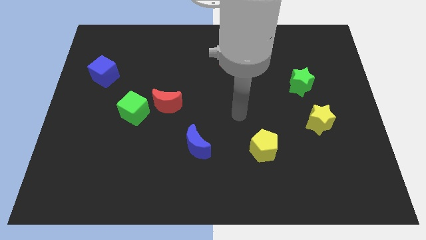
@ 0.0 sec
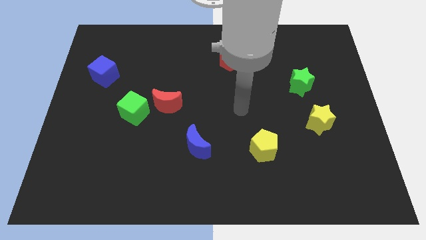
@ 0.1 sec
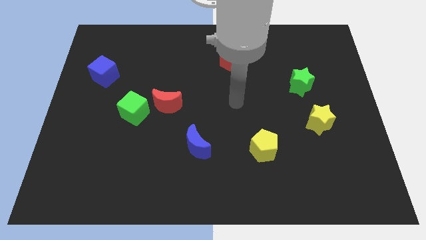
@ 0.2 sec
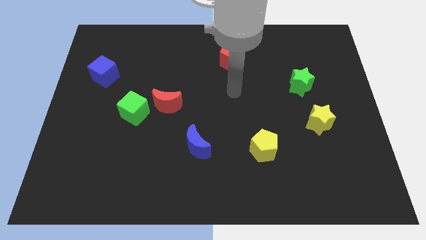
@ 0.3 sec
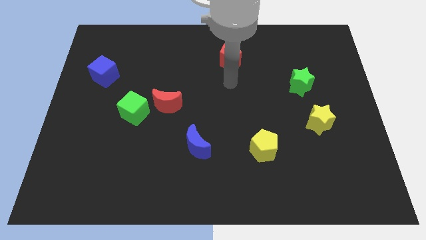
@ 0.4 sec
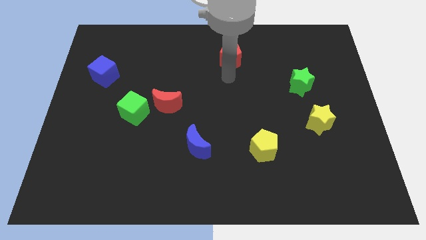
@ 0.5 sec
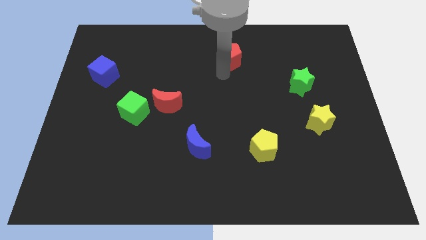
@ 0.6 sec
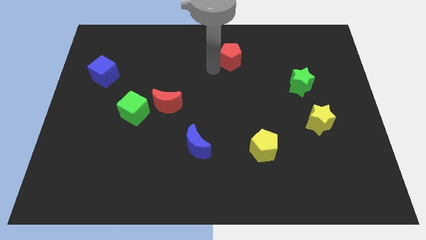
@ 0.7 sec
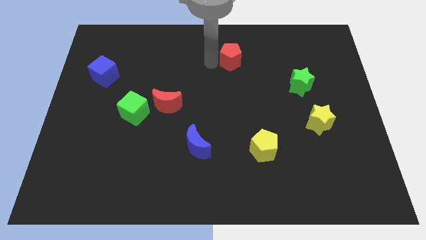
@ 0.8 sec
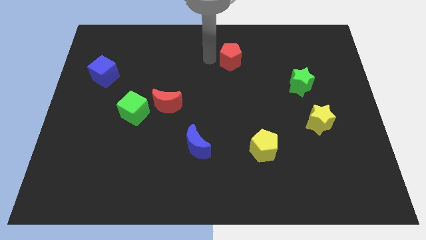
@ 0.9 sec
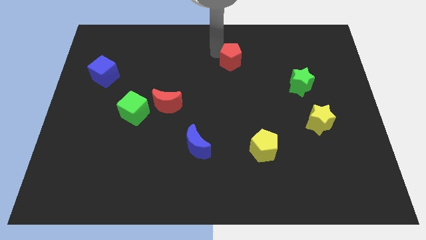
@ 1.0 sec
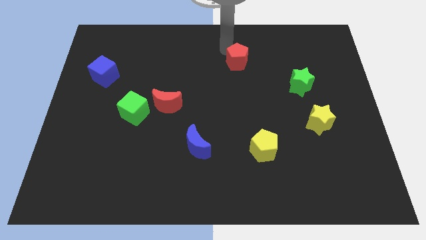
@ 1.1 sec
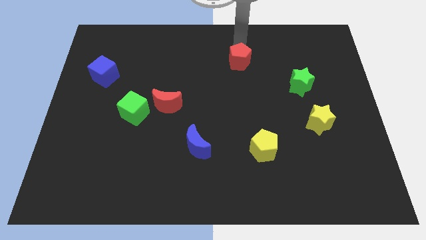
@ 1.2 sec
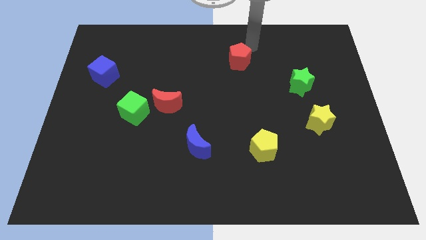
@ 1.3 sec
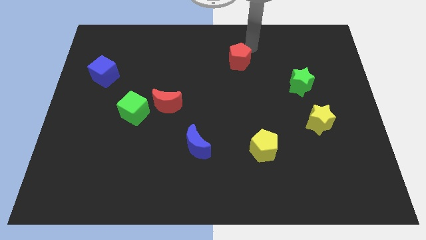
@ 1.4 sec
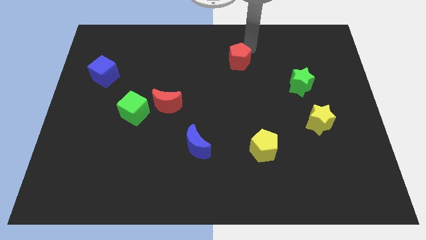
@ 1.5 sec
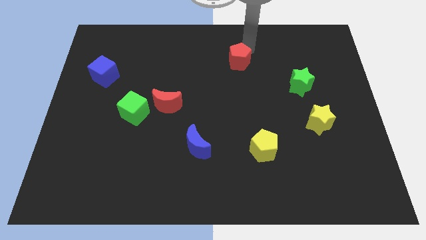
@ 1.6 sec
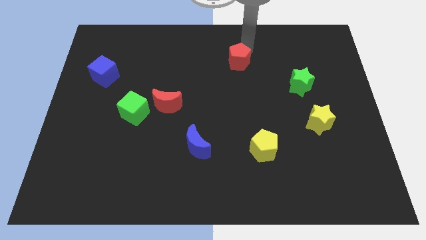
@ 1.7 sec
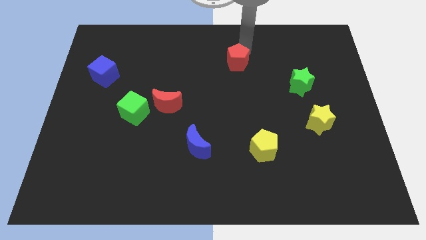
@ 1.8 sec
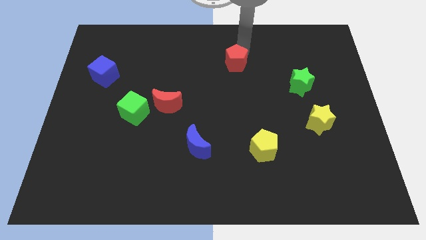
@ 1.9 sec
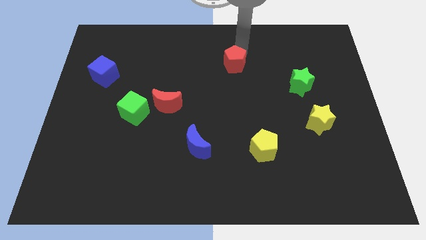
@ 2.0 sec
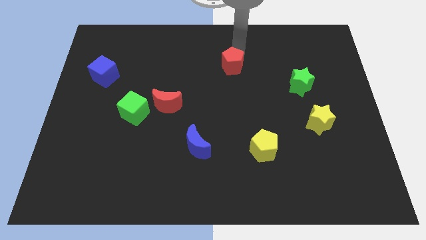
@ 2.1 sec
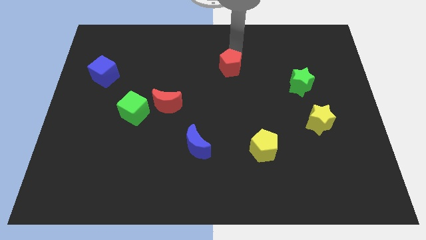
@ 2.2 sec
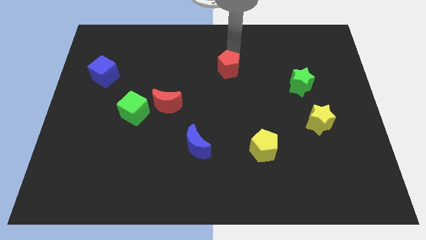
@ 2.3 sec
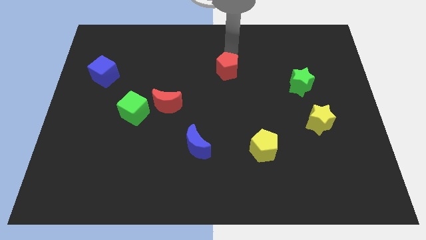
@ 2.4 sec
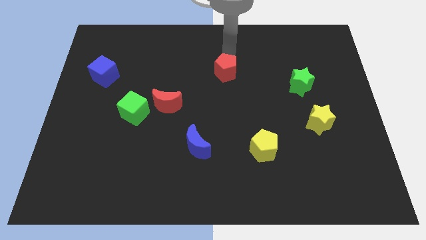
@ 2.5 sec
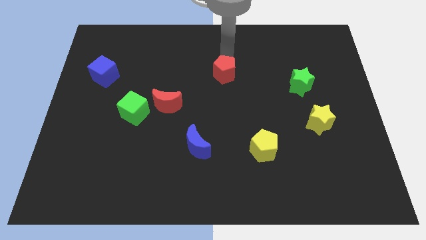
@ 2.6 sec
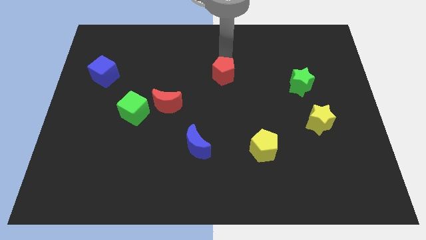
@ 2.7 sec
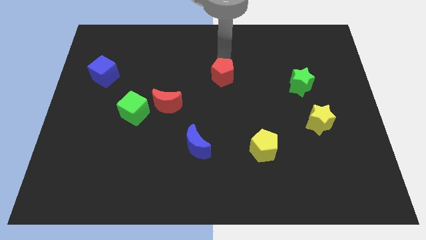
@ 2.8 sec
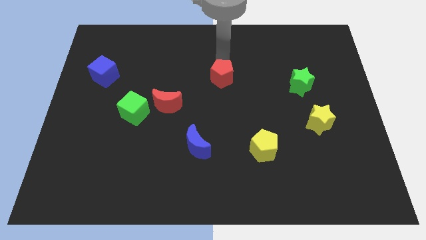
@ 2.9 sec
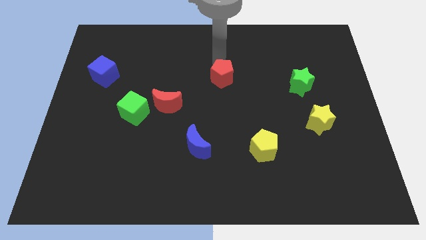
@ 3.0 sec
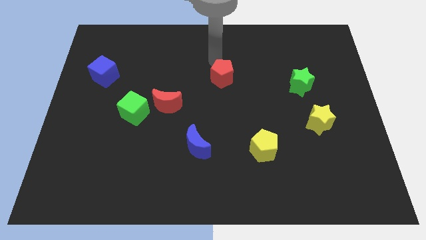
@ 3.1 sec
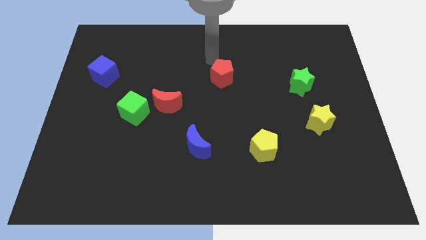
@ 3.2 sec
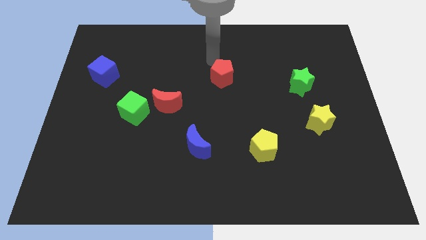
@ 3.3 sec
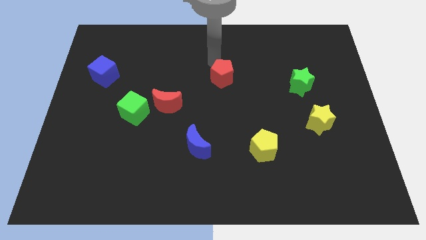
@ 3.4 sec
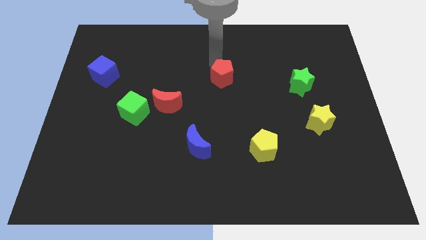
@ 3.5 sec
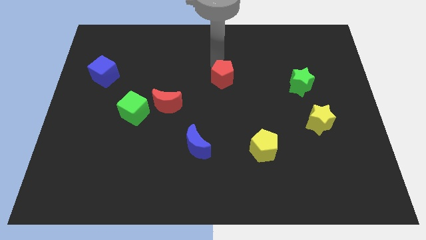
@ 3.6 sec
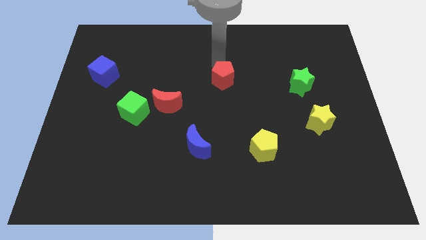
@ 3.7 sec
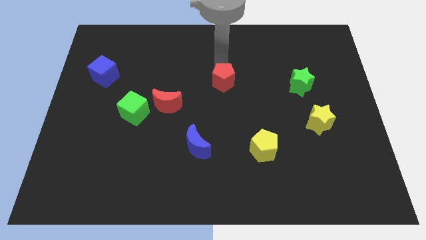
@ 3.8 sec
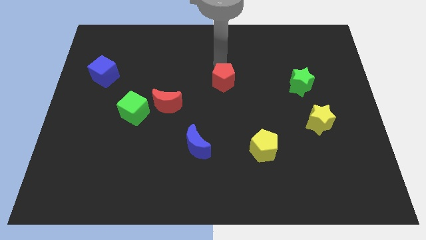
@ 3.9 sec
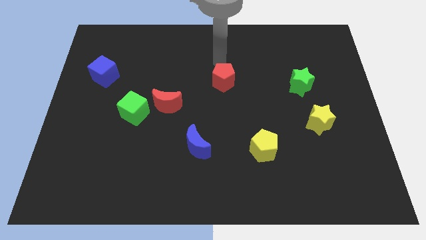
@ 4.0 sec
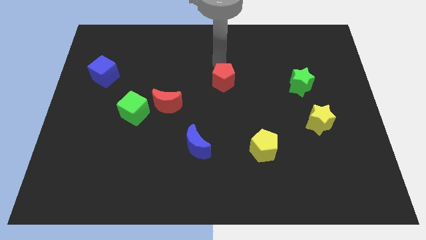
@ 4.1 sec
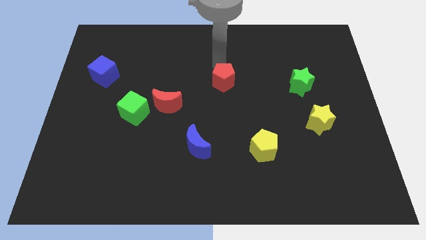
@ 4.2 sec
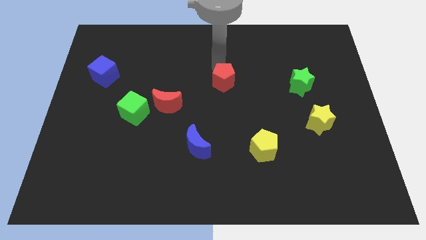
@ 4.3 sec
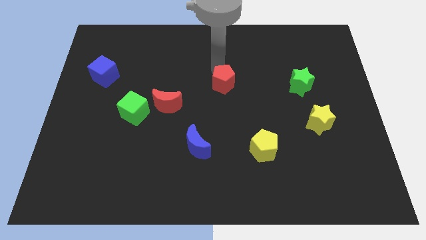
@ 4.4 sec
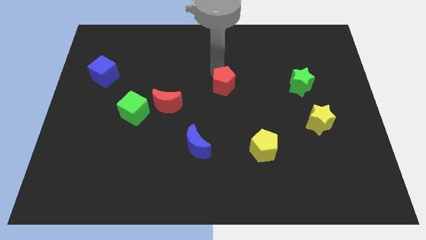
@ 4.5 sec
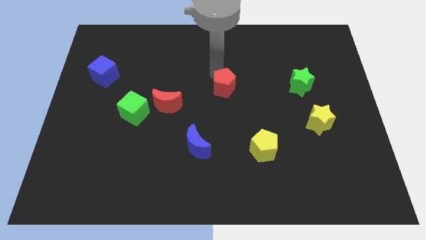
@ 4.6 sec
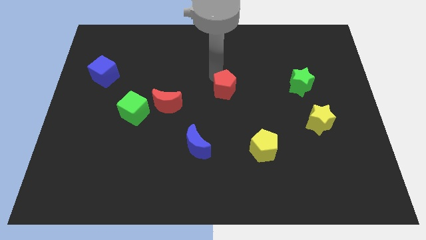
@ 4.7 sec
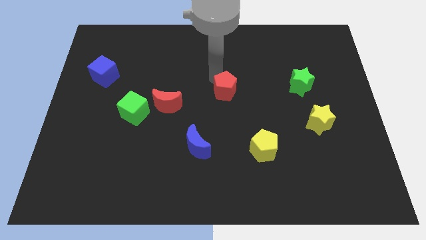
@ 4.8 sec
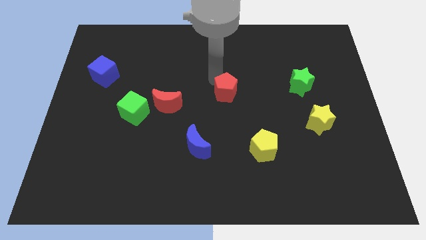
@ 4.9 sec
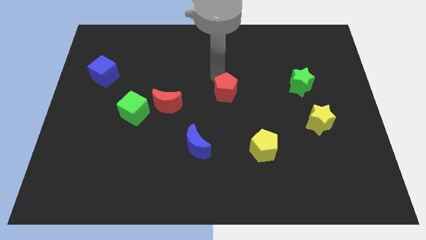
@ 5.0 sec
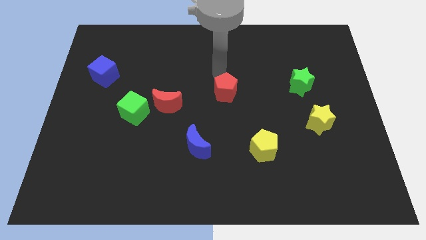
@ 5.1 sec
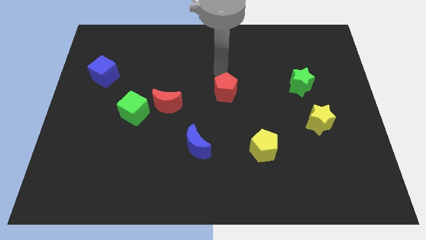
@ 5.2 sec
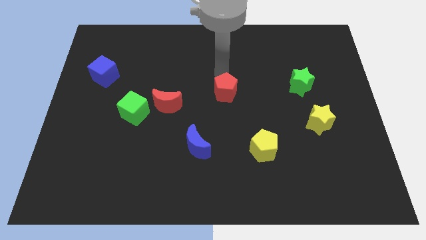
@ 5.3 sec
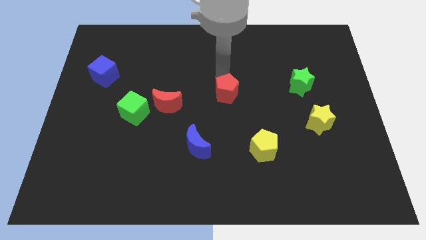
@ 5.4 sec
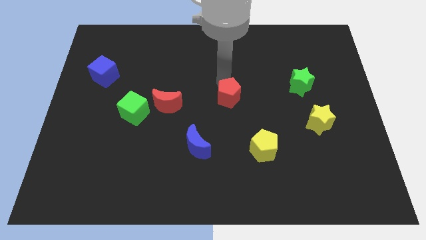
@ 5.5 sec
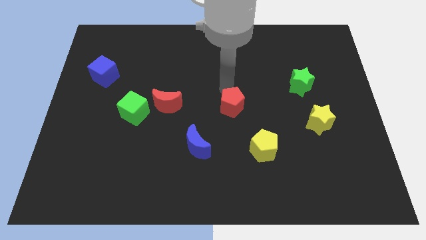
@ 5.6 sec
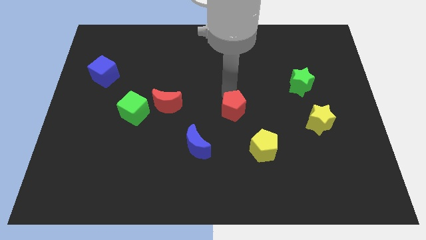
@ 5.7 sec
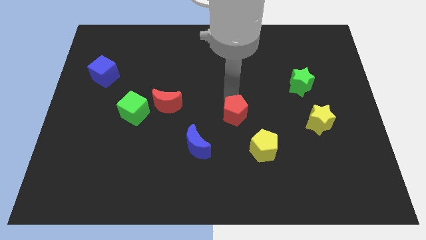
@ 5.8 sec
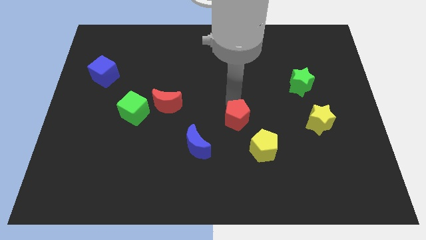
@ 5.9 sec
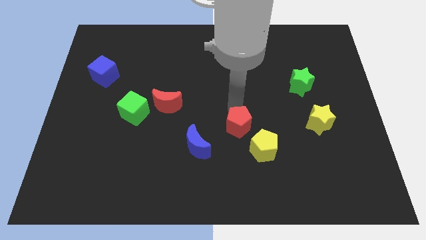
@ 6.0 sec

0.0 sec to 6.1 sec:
push the red pentagon downwards

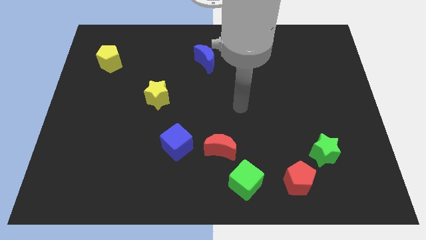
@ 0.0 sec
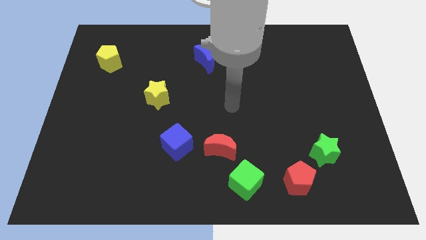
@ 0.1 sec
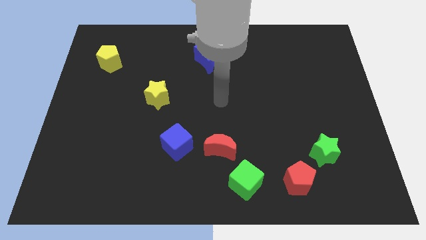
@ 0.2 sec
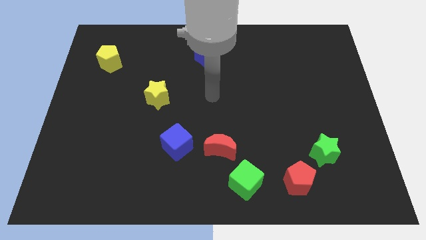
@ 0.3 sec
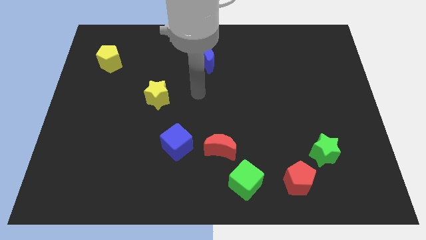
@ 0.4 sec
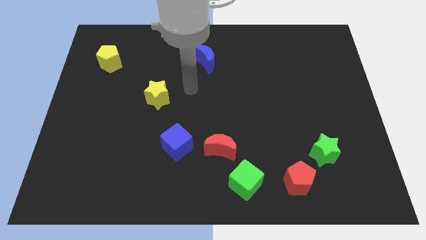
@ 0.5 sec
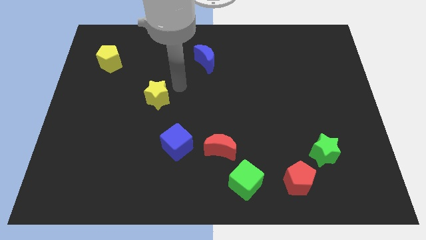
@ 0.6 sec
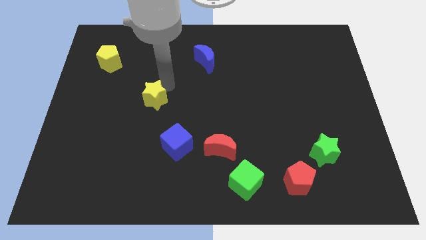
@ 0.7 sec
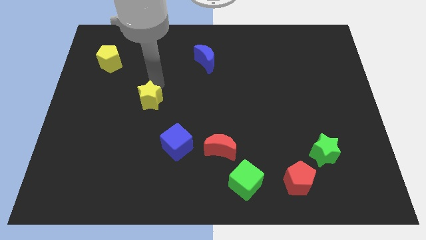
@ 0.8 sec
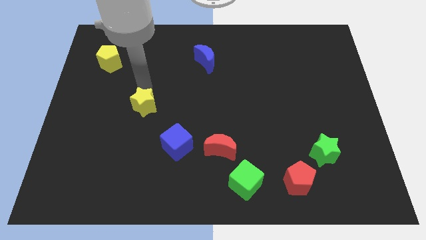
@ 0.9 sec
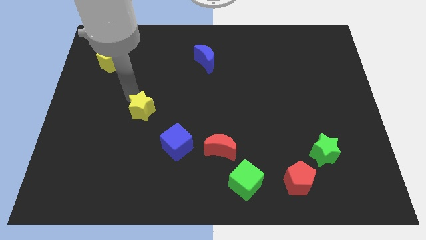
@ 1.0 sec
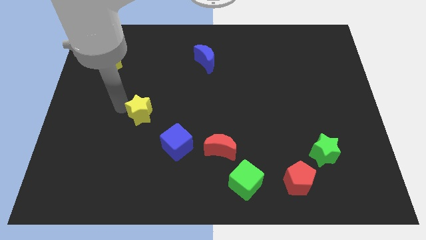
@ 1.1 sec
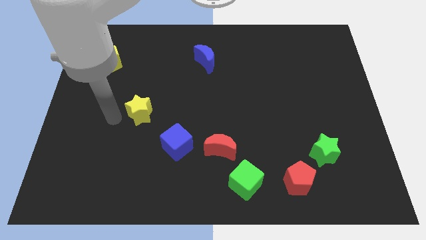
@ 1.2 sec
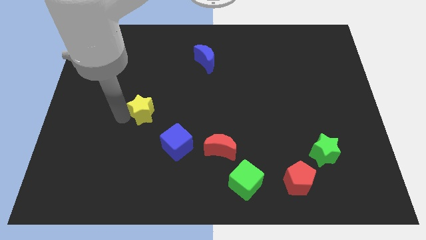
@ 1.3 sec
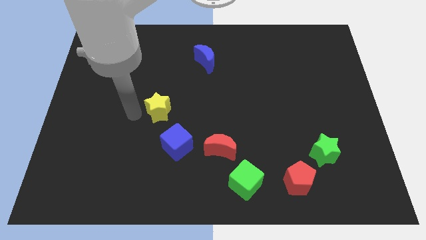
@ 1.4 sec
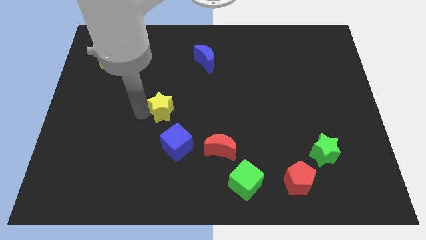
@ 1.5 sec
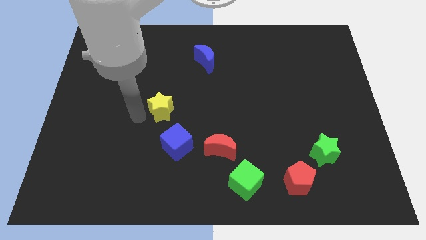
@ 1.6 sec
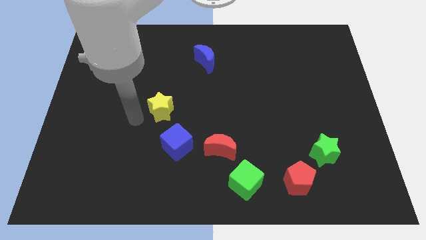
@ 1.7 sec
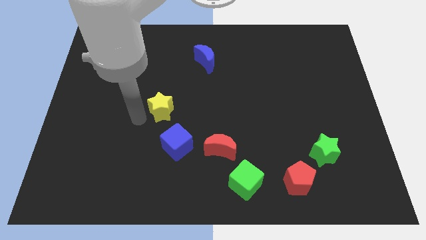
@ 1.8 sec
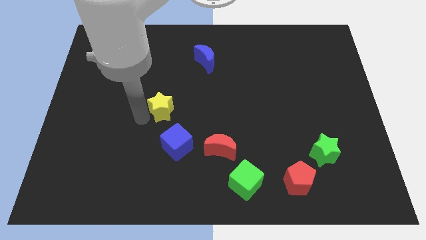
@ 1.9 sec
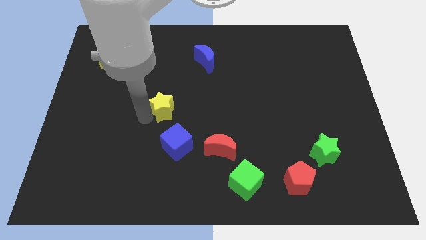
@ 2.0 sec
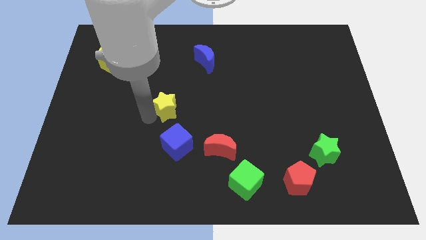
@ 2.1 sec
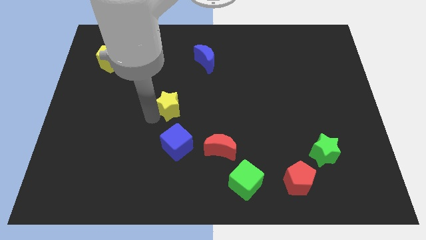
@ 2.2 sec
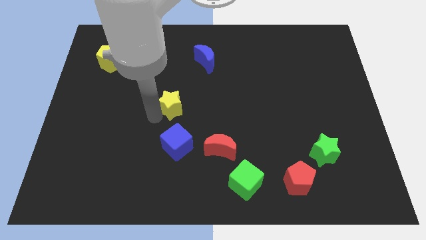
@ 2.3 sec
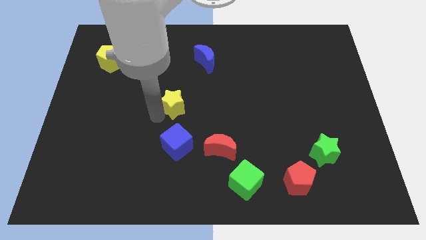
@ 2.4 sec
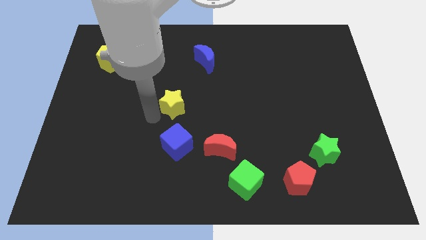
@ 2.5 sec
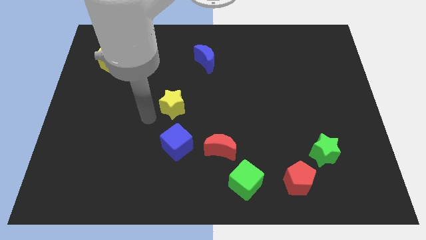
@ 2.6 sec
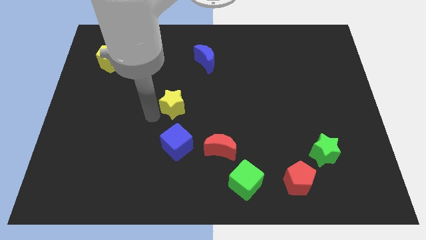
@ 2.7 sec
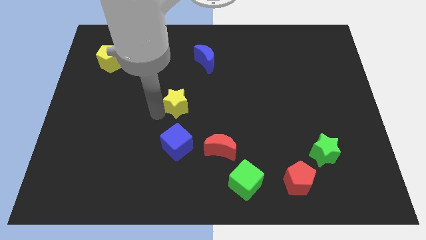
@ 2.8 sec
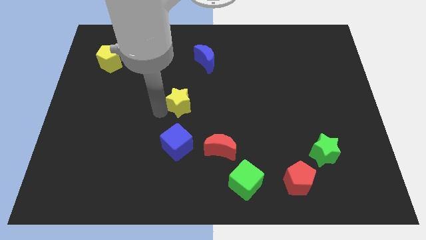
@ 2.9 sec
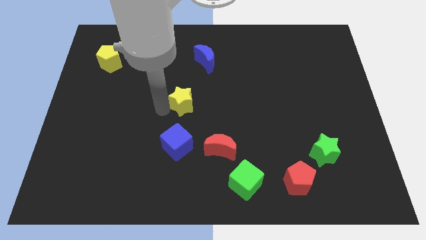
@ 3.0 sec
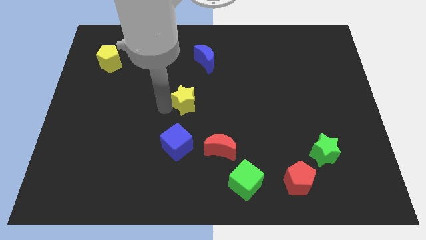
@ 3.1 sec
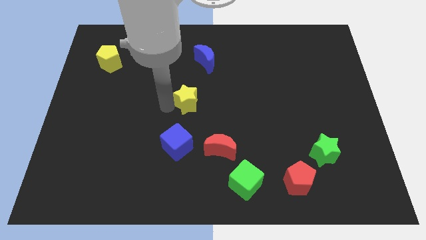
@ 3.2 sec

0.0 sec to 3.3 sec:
push the yellow star a little bit right
